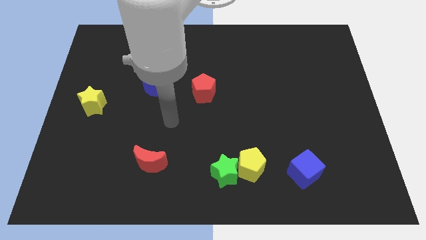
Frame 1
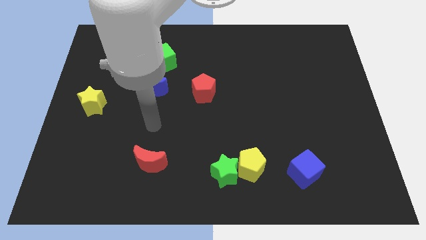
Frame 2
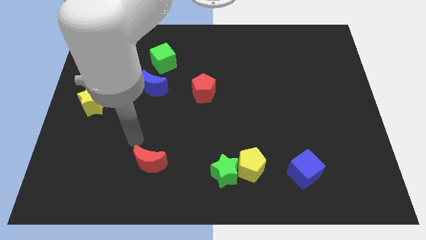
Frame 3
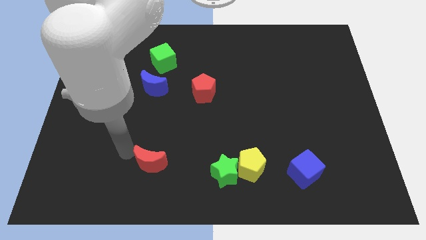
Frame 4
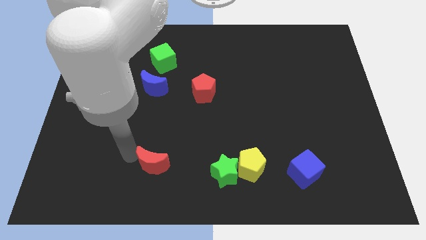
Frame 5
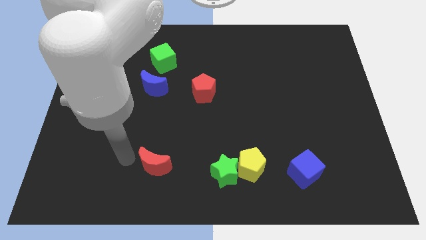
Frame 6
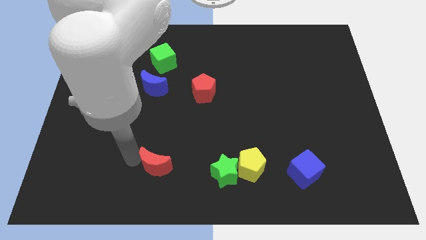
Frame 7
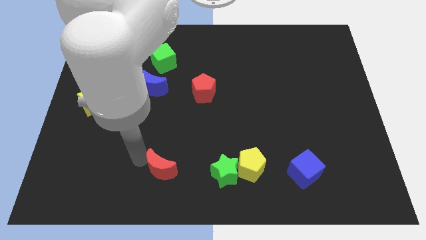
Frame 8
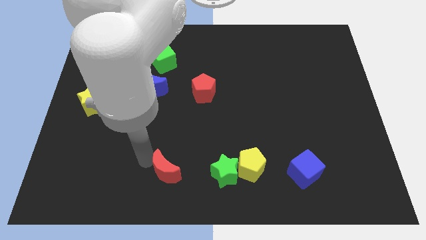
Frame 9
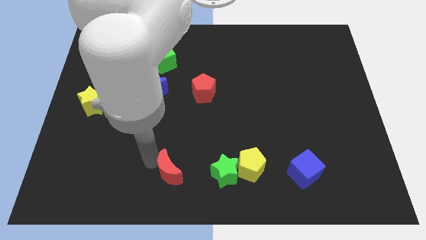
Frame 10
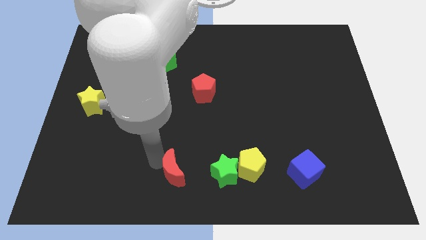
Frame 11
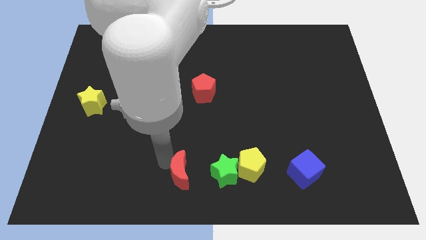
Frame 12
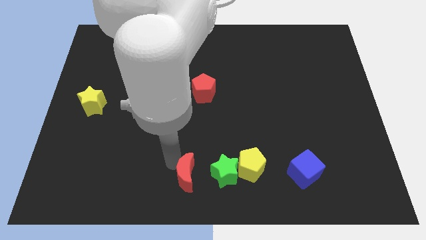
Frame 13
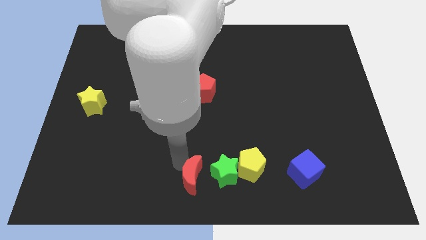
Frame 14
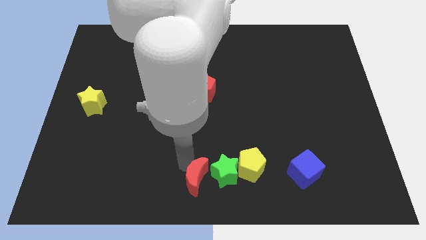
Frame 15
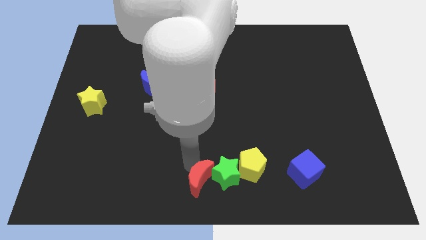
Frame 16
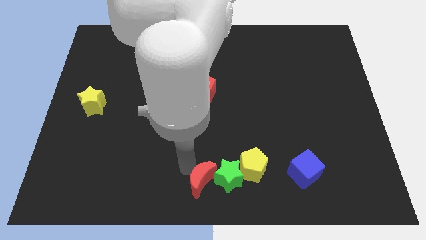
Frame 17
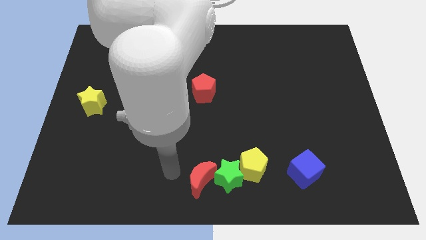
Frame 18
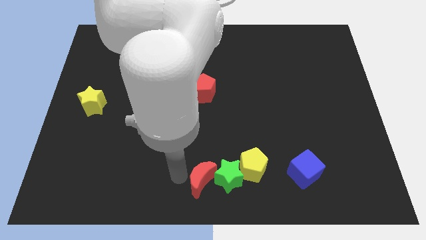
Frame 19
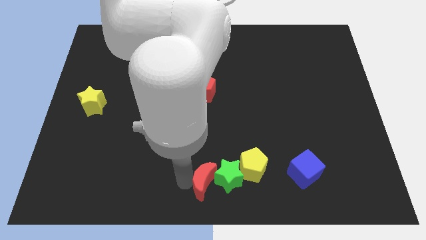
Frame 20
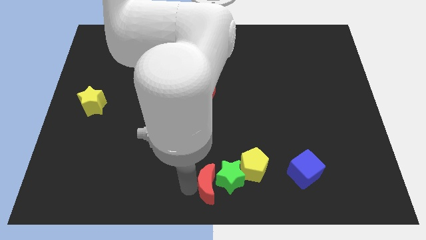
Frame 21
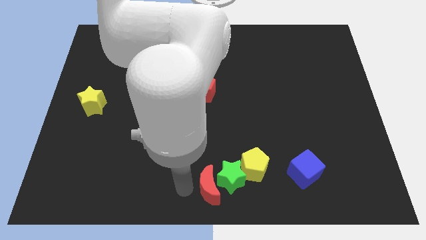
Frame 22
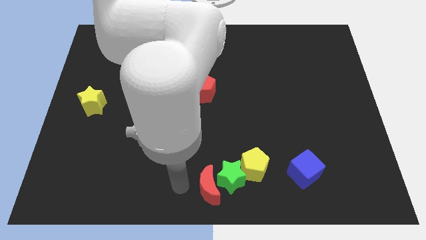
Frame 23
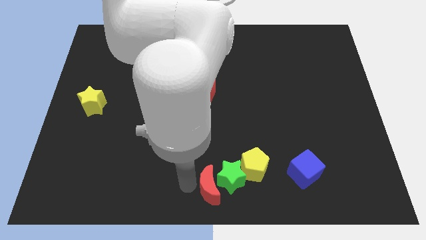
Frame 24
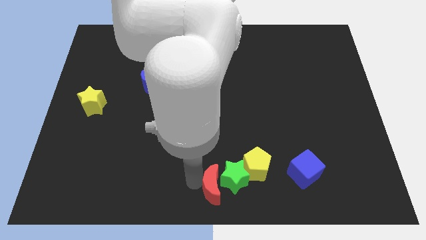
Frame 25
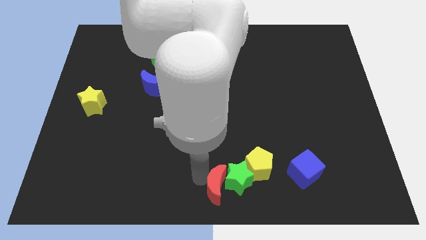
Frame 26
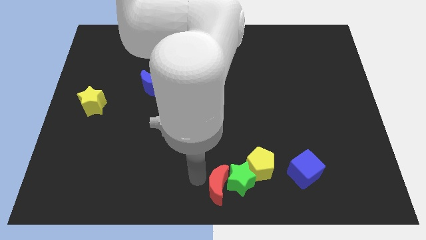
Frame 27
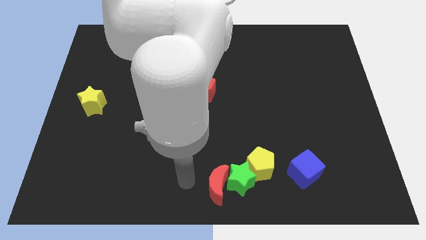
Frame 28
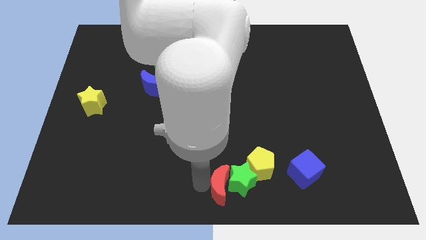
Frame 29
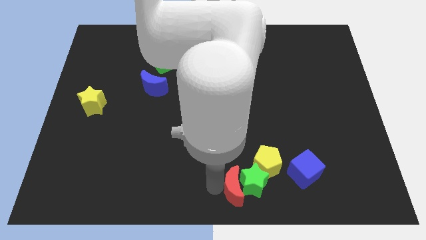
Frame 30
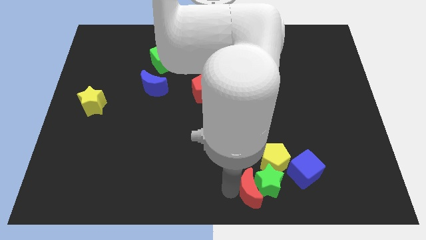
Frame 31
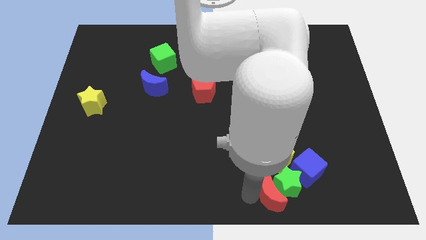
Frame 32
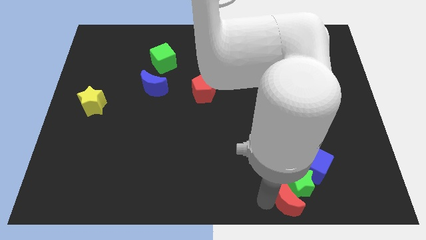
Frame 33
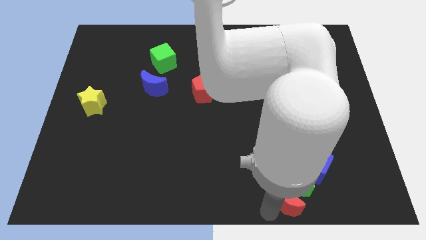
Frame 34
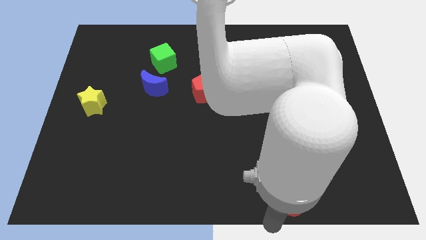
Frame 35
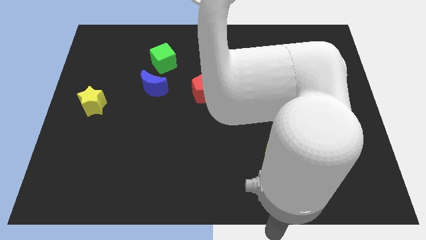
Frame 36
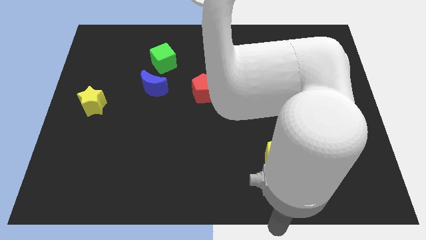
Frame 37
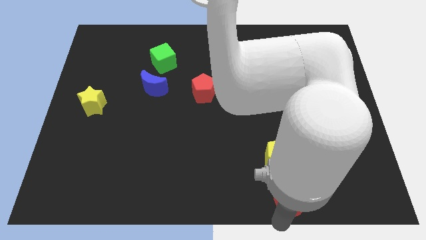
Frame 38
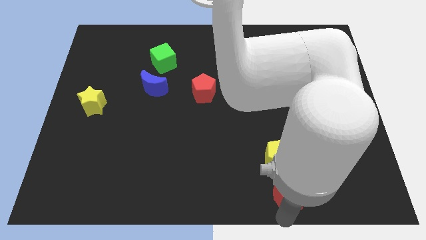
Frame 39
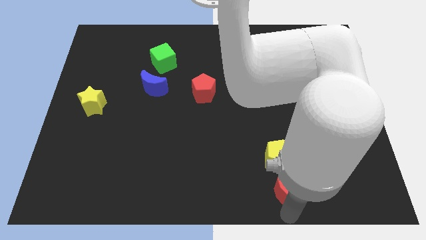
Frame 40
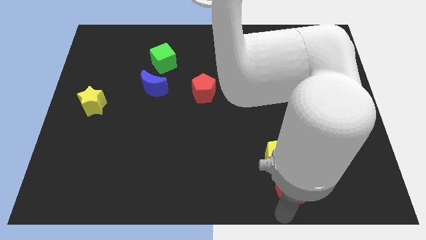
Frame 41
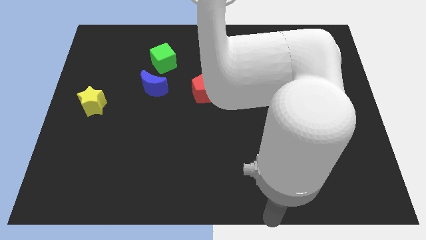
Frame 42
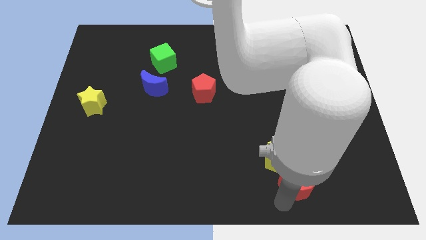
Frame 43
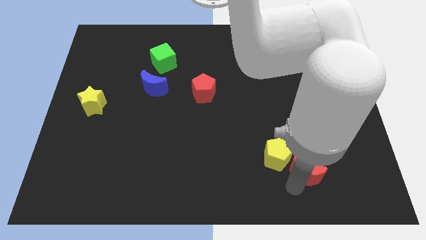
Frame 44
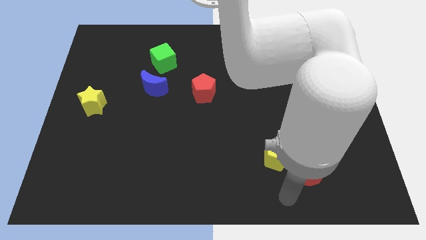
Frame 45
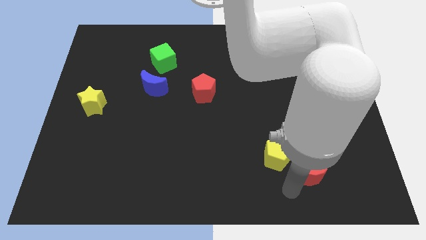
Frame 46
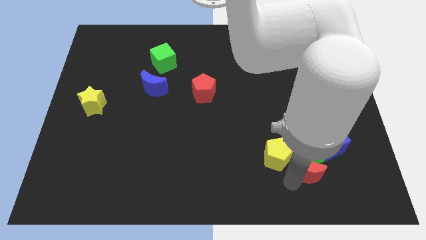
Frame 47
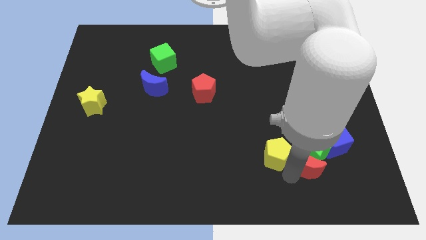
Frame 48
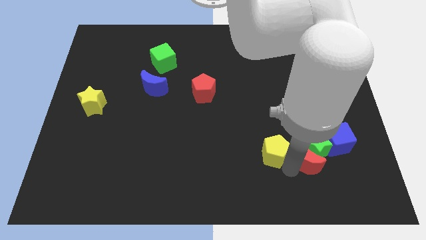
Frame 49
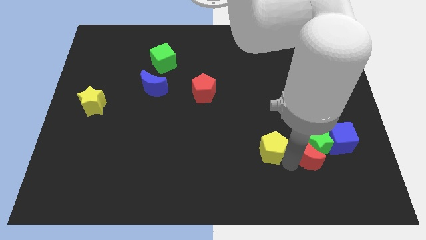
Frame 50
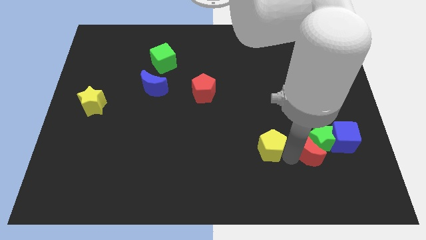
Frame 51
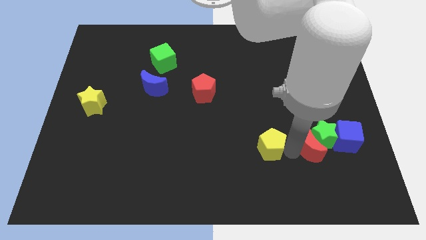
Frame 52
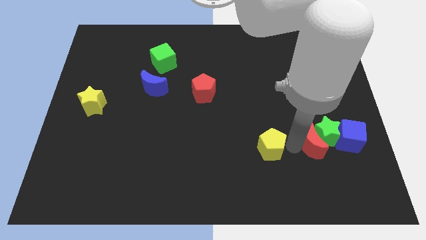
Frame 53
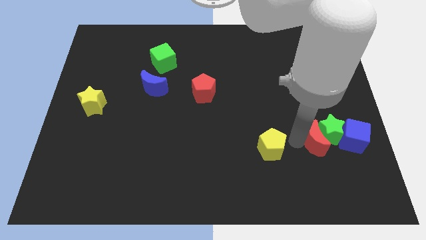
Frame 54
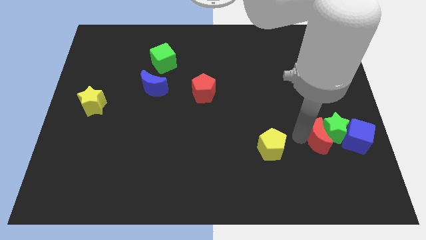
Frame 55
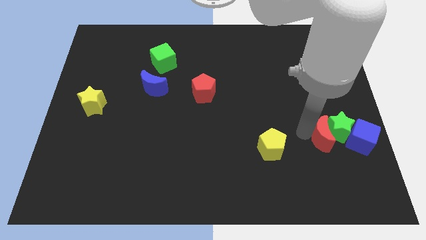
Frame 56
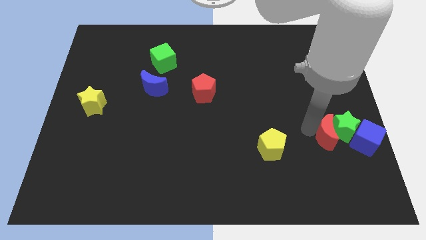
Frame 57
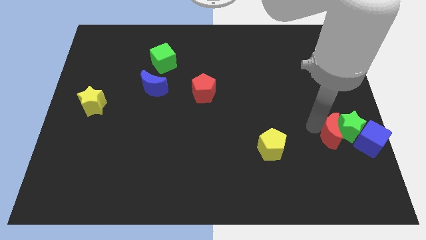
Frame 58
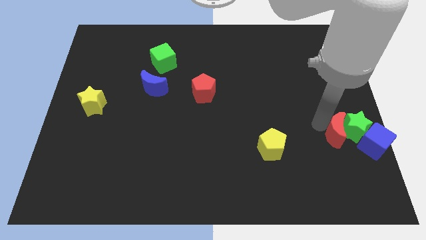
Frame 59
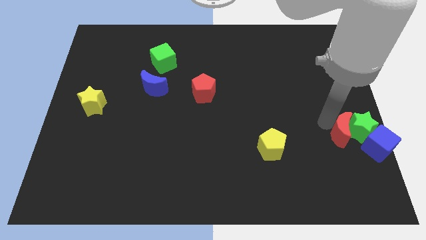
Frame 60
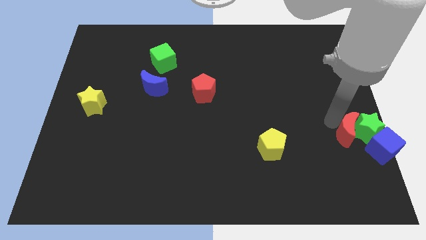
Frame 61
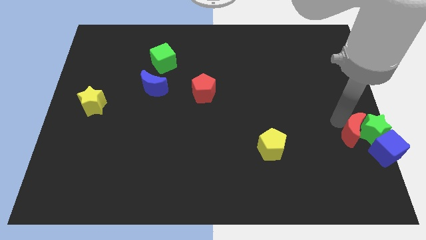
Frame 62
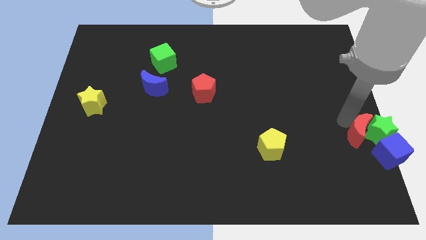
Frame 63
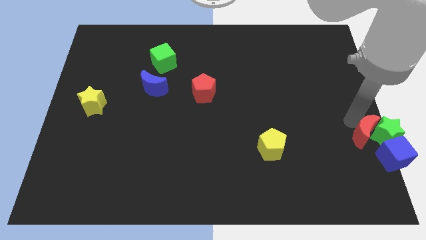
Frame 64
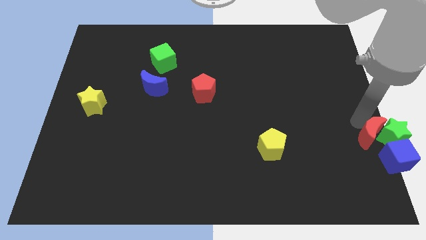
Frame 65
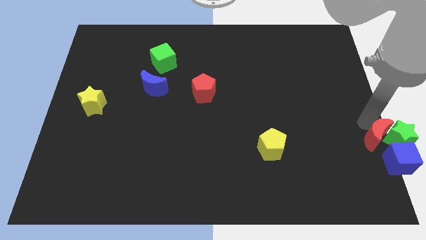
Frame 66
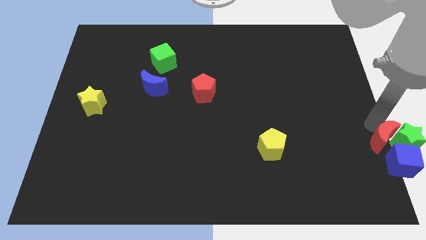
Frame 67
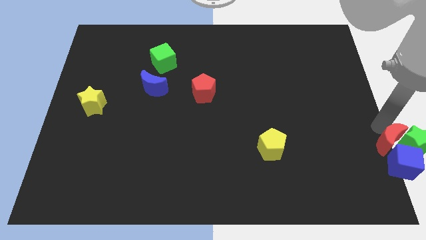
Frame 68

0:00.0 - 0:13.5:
push the red moon close to the blue cube
